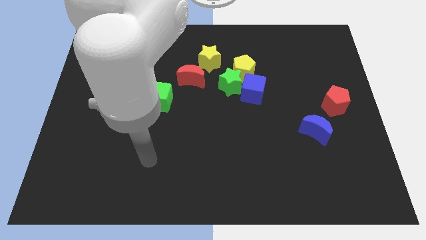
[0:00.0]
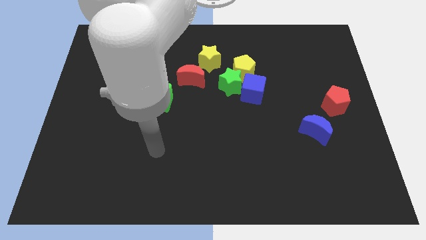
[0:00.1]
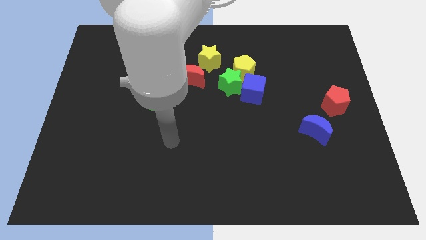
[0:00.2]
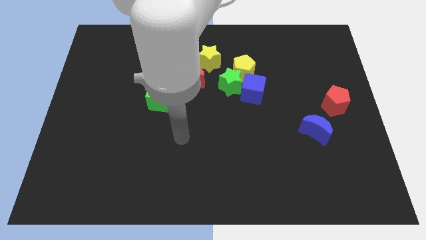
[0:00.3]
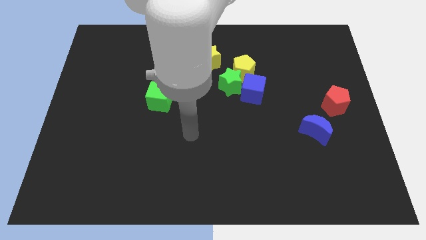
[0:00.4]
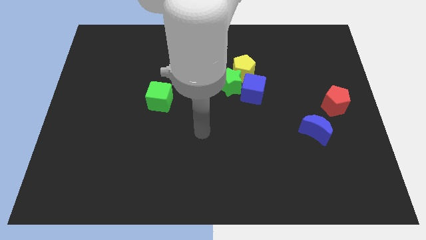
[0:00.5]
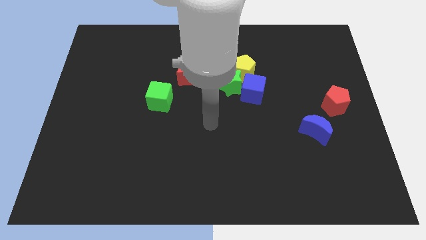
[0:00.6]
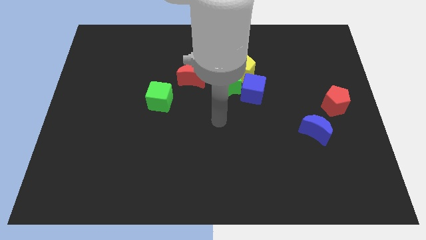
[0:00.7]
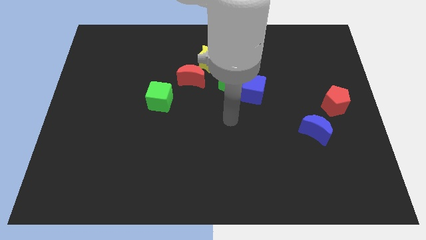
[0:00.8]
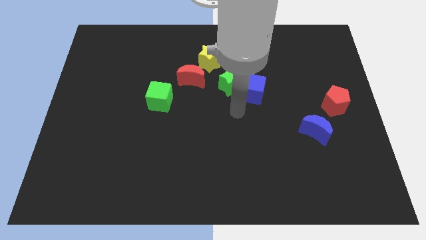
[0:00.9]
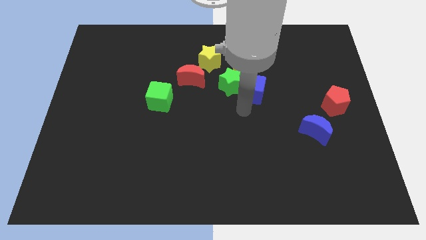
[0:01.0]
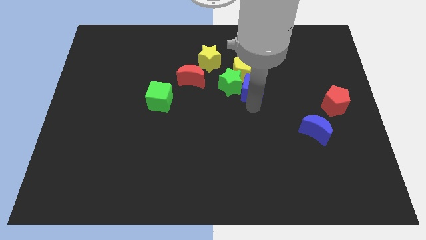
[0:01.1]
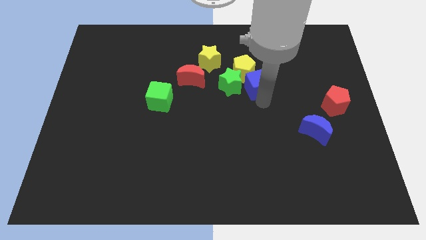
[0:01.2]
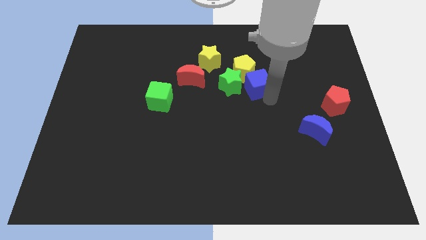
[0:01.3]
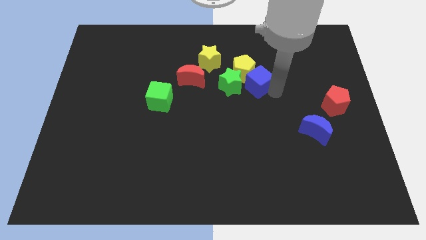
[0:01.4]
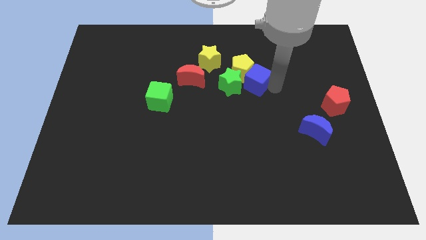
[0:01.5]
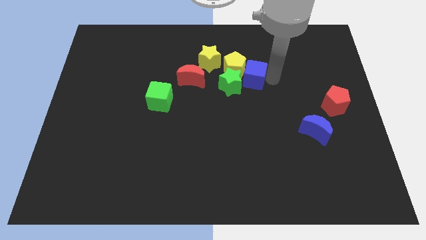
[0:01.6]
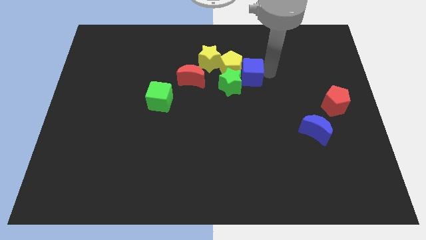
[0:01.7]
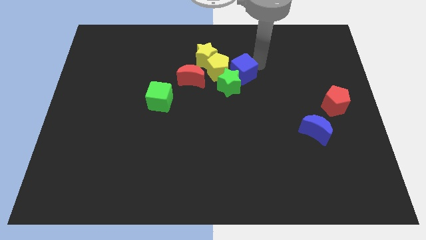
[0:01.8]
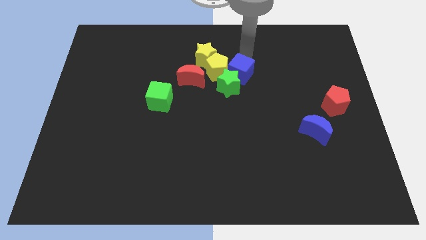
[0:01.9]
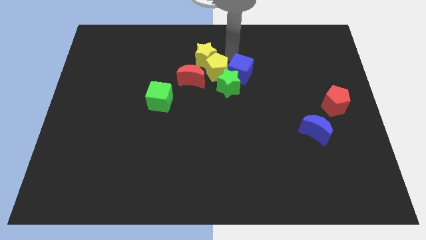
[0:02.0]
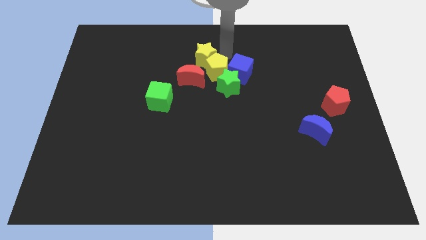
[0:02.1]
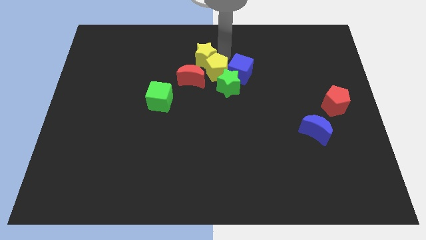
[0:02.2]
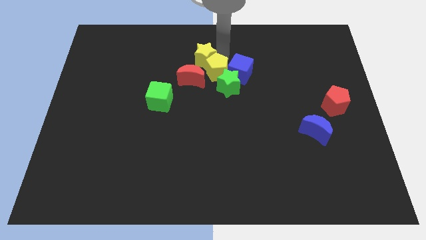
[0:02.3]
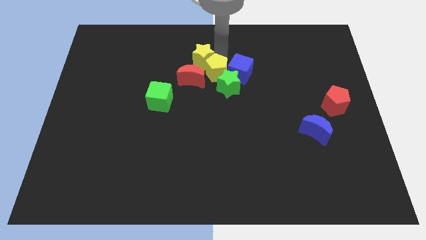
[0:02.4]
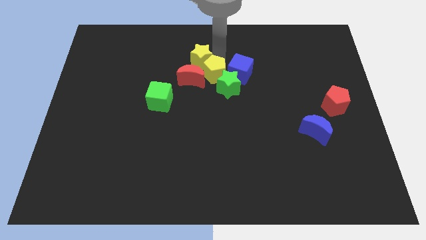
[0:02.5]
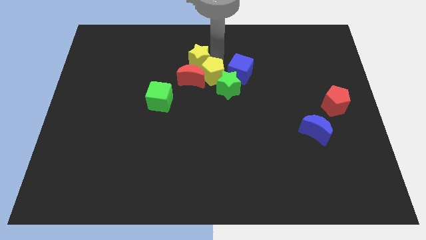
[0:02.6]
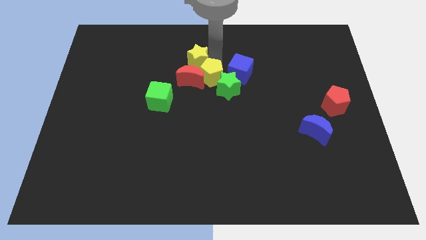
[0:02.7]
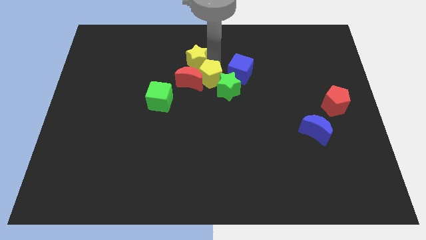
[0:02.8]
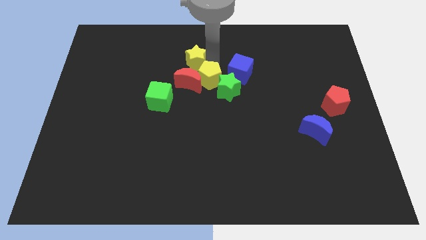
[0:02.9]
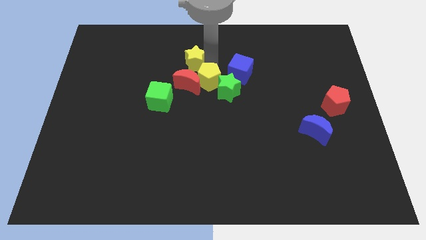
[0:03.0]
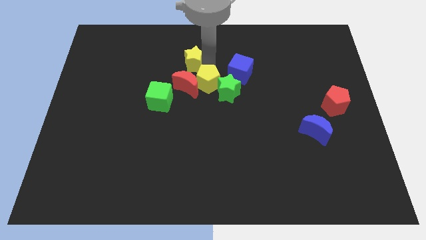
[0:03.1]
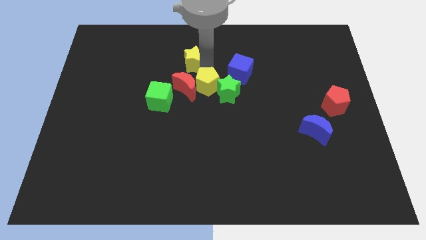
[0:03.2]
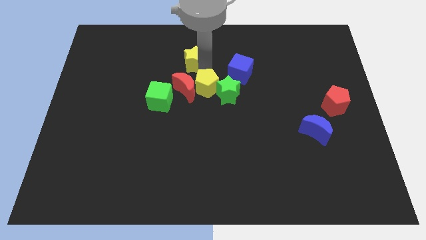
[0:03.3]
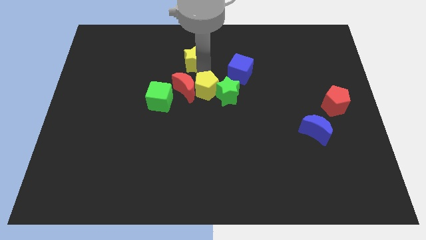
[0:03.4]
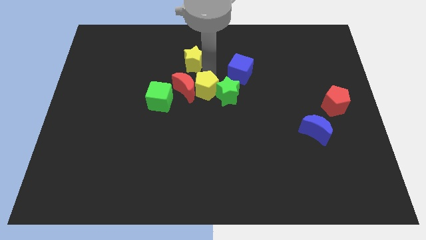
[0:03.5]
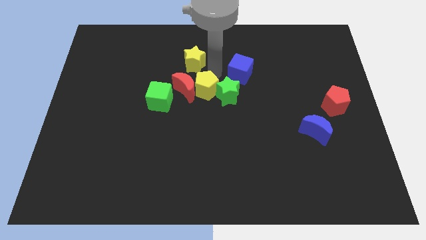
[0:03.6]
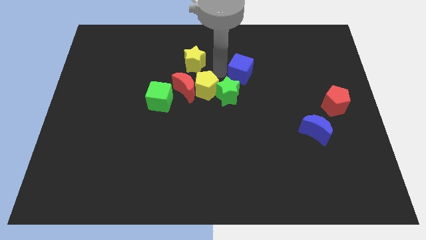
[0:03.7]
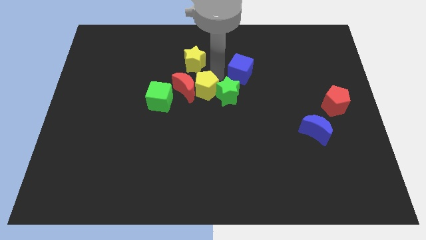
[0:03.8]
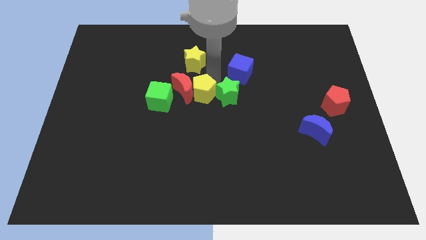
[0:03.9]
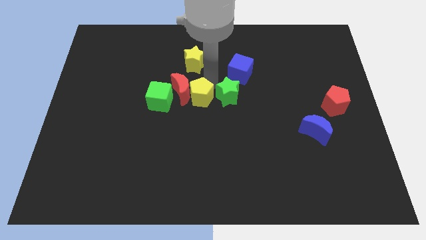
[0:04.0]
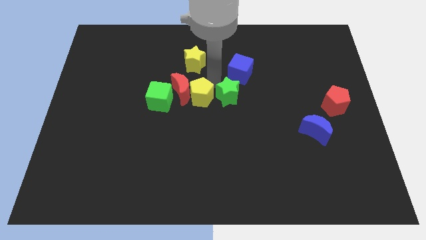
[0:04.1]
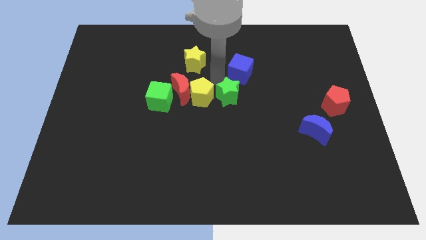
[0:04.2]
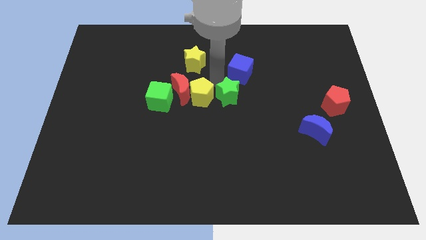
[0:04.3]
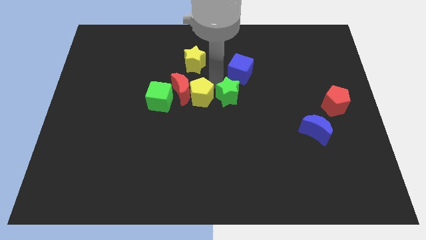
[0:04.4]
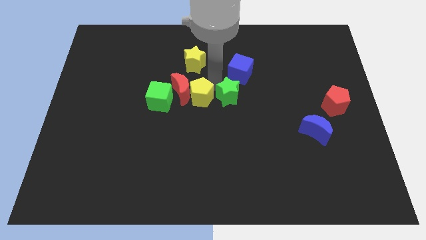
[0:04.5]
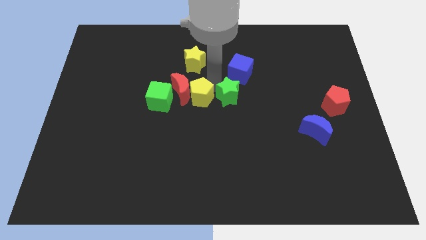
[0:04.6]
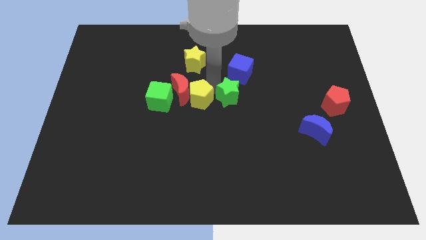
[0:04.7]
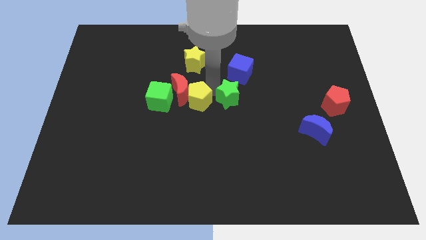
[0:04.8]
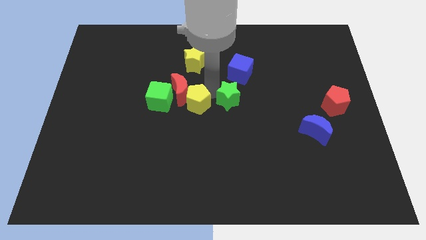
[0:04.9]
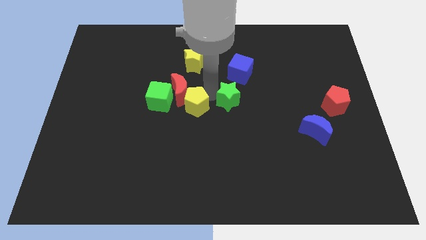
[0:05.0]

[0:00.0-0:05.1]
push the yellow pentagon to the bottom right of the green cube

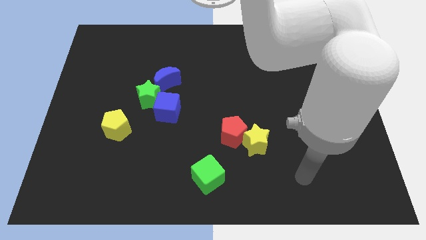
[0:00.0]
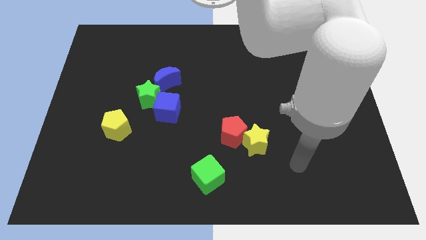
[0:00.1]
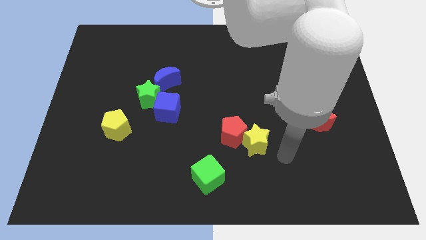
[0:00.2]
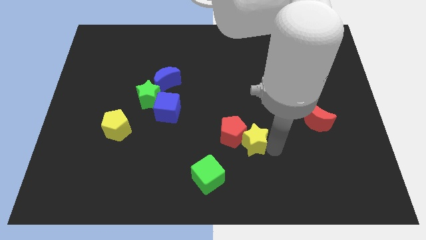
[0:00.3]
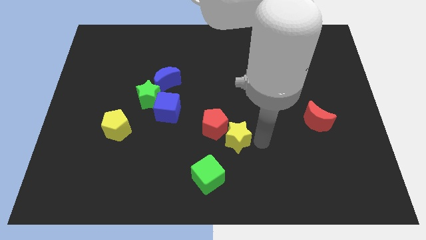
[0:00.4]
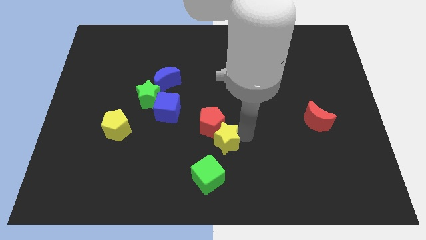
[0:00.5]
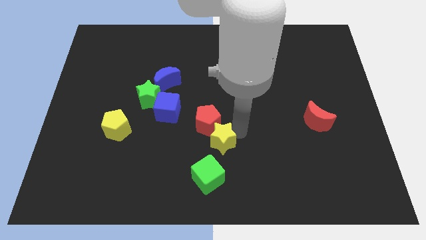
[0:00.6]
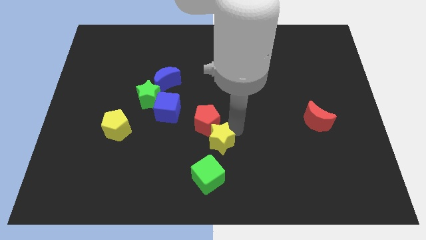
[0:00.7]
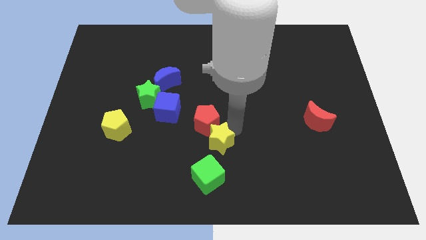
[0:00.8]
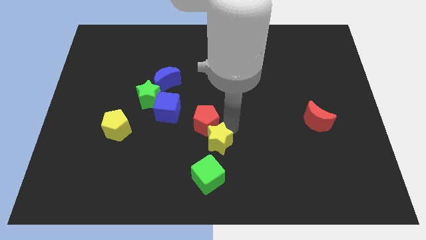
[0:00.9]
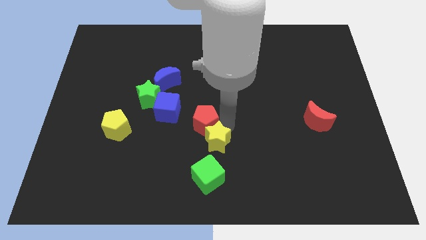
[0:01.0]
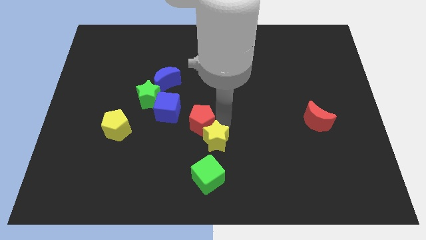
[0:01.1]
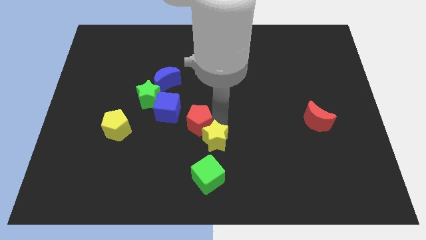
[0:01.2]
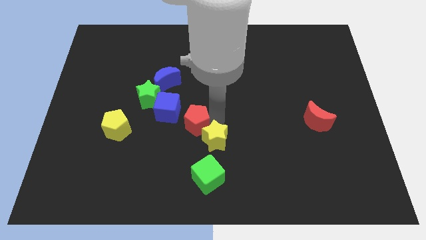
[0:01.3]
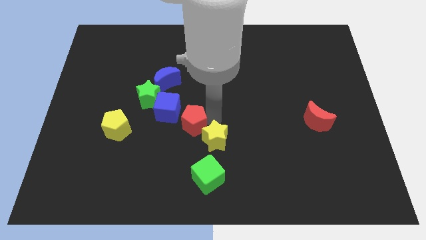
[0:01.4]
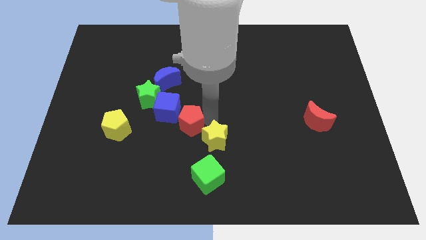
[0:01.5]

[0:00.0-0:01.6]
move the red pentagon to the bottom right side of the green star

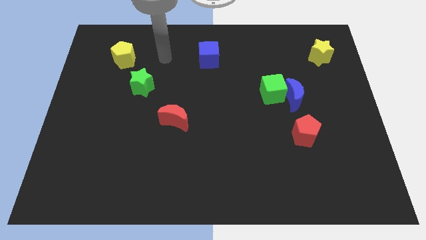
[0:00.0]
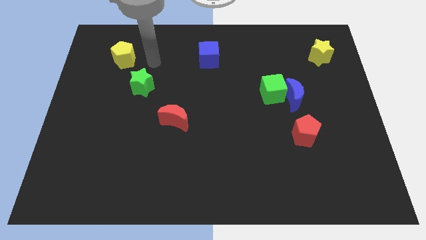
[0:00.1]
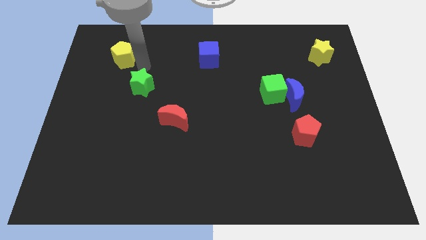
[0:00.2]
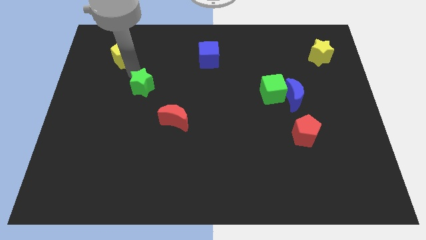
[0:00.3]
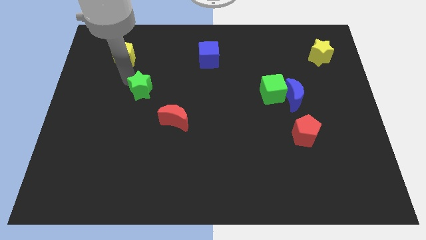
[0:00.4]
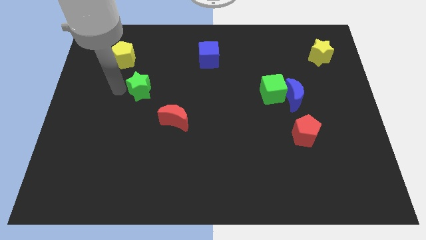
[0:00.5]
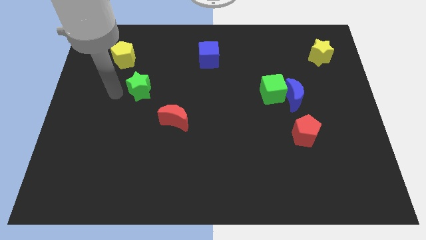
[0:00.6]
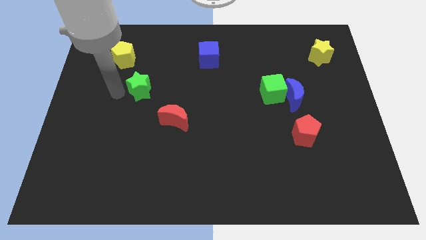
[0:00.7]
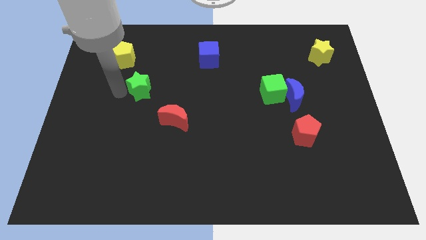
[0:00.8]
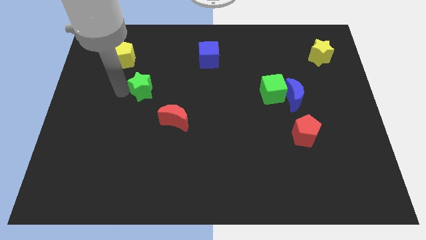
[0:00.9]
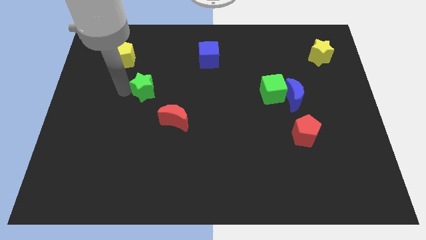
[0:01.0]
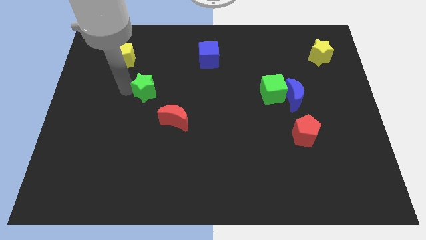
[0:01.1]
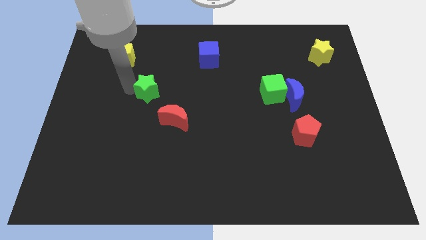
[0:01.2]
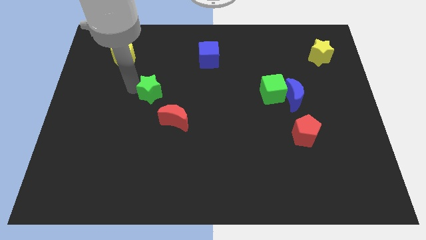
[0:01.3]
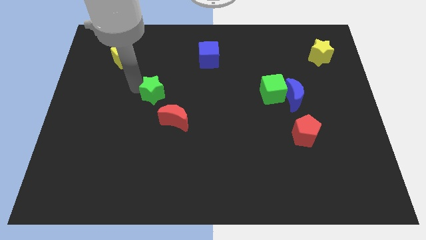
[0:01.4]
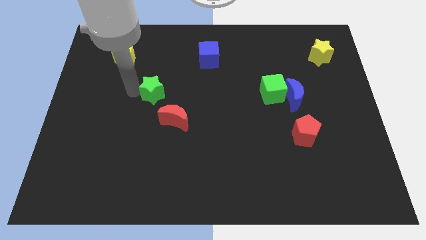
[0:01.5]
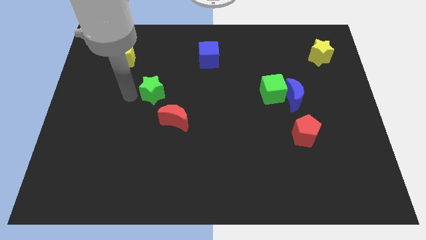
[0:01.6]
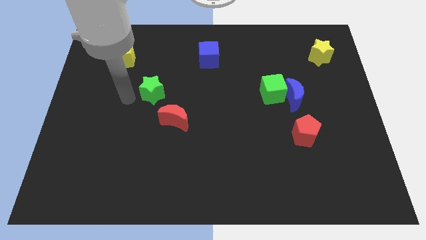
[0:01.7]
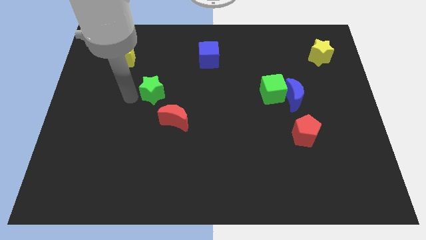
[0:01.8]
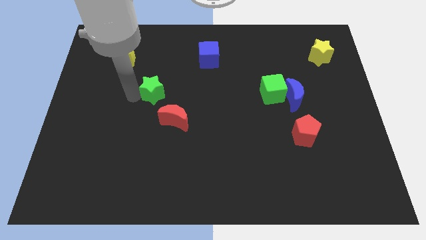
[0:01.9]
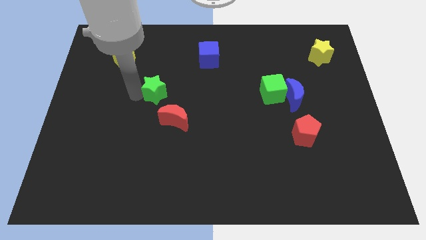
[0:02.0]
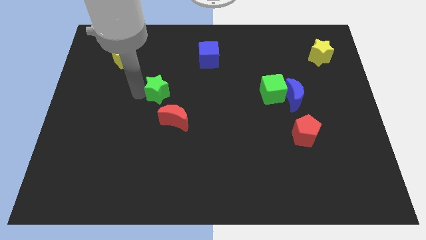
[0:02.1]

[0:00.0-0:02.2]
put the green star to the top of the red moon
